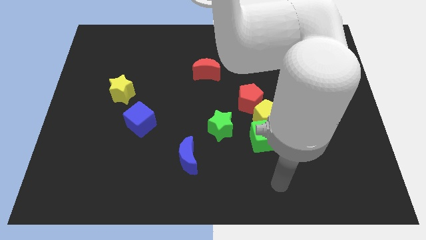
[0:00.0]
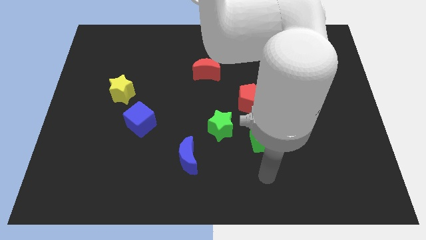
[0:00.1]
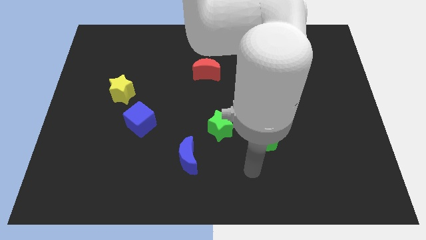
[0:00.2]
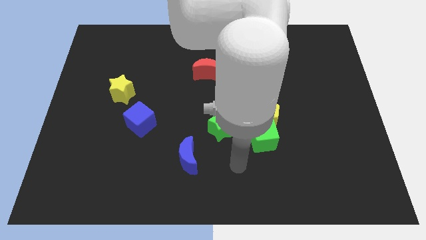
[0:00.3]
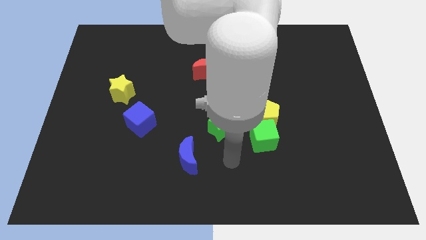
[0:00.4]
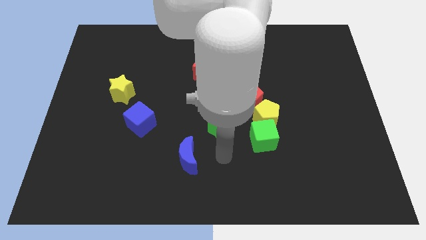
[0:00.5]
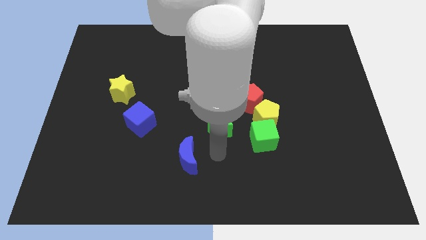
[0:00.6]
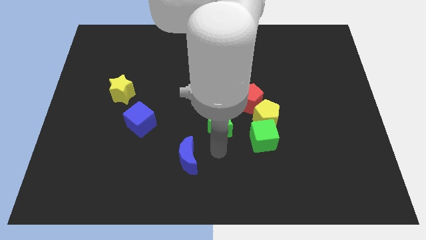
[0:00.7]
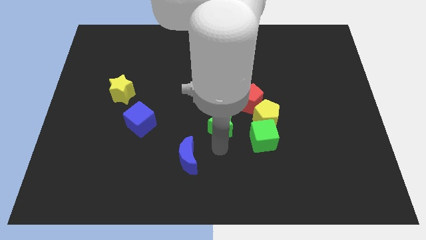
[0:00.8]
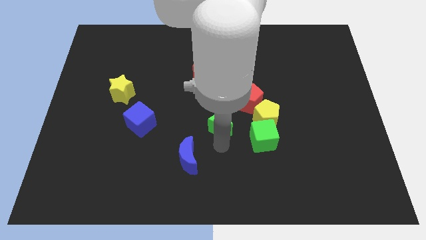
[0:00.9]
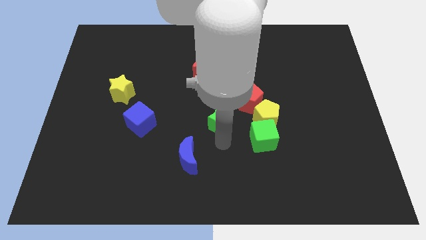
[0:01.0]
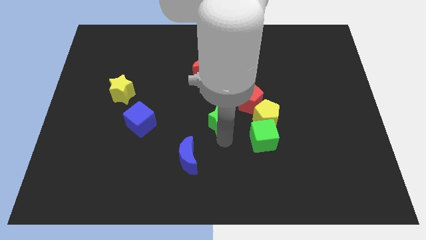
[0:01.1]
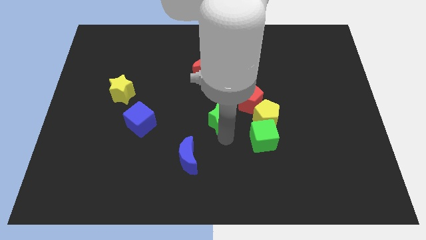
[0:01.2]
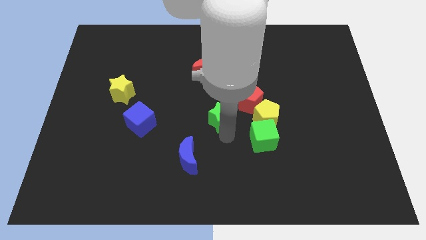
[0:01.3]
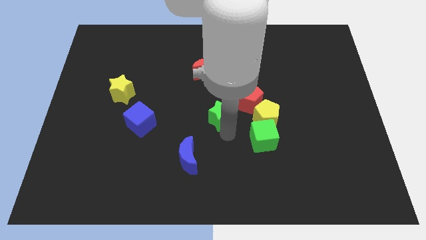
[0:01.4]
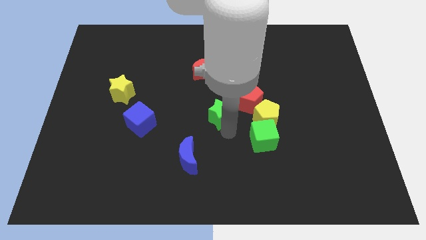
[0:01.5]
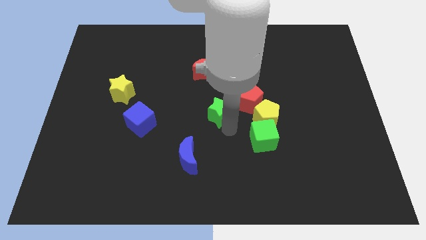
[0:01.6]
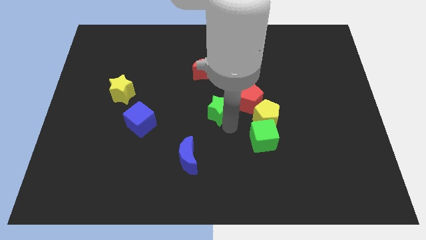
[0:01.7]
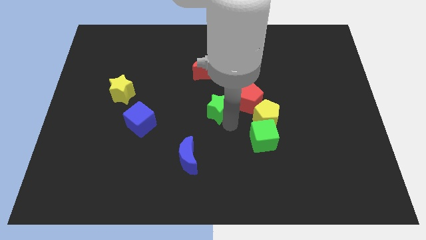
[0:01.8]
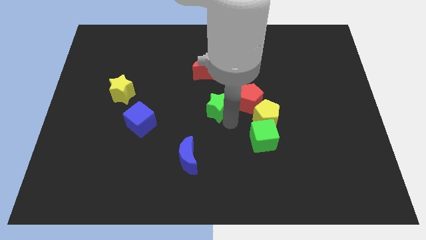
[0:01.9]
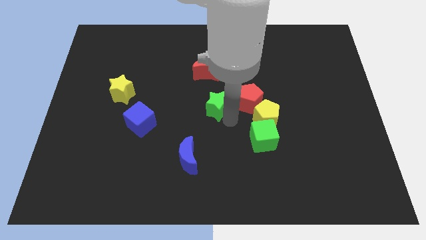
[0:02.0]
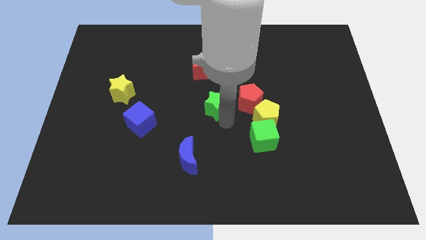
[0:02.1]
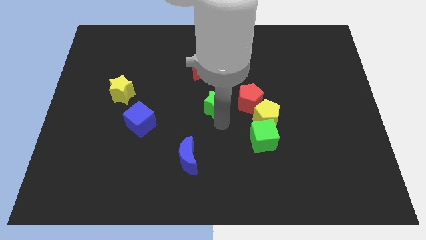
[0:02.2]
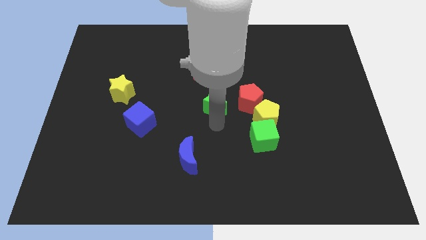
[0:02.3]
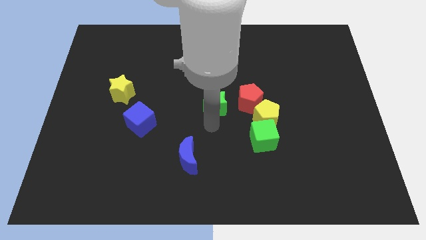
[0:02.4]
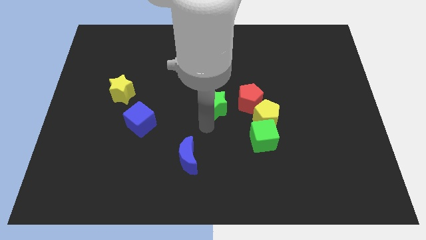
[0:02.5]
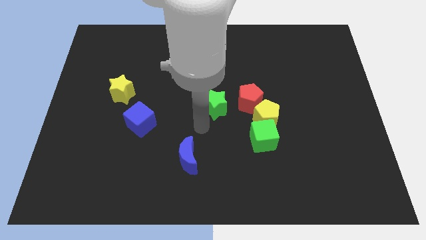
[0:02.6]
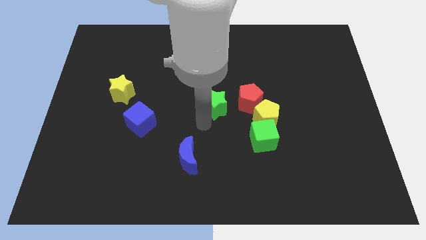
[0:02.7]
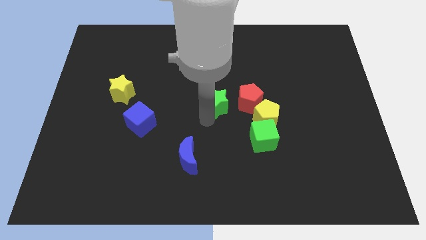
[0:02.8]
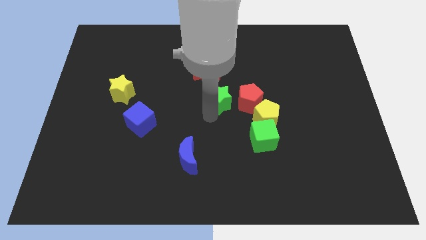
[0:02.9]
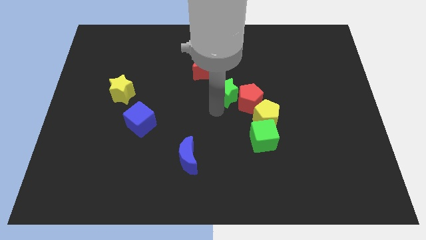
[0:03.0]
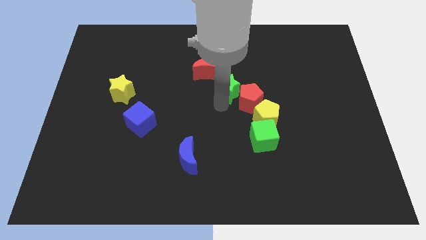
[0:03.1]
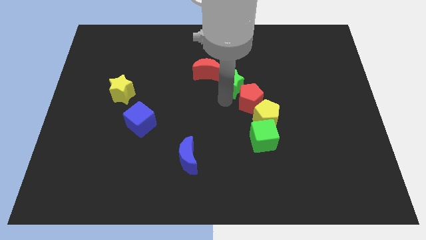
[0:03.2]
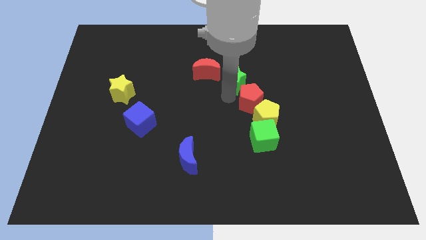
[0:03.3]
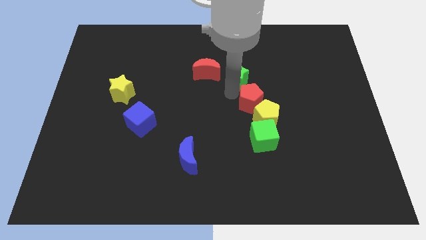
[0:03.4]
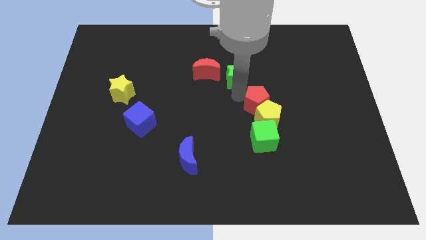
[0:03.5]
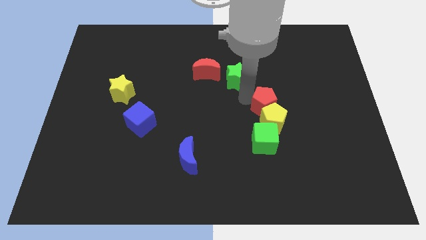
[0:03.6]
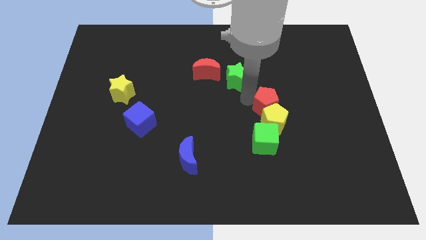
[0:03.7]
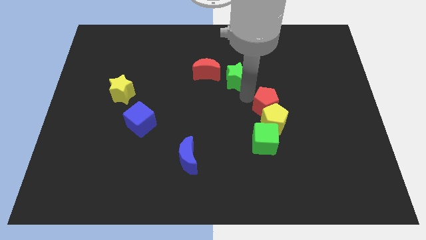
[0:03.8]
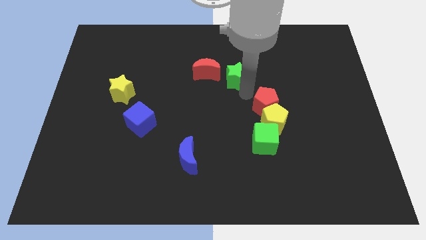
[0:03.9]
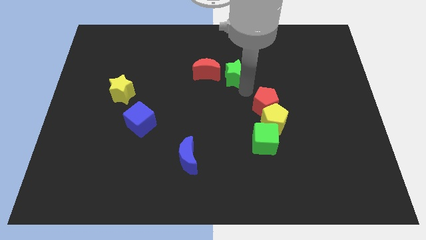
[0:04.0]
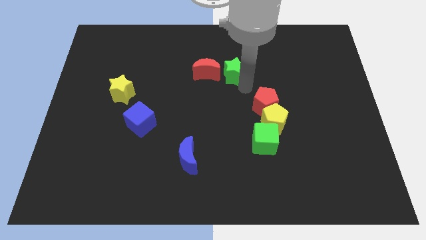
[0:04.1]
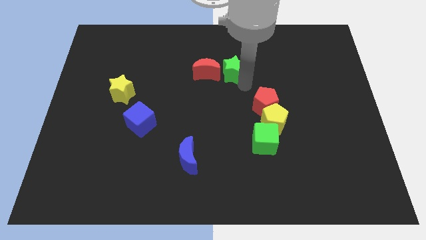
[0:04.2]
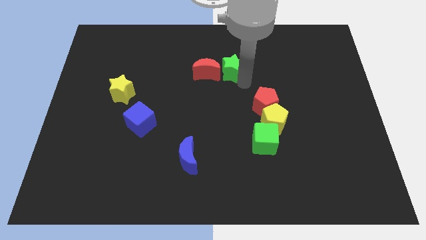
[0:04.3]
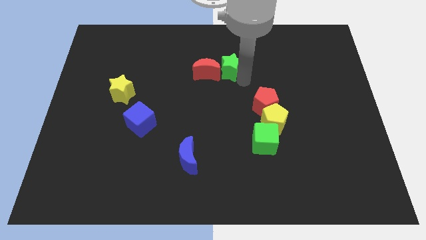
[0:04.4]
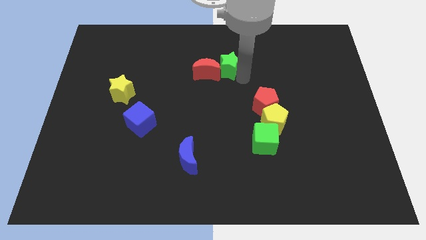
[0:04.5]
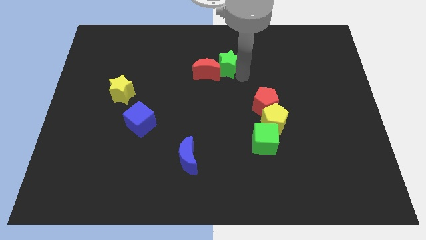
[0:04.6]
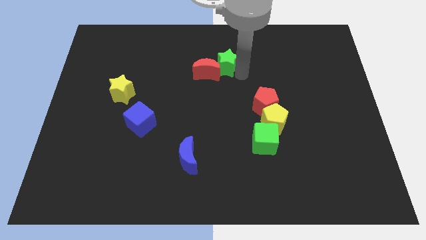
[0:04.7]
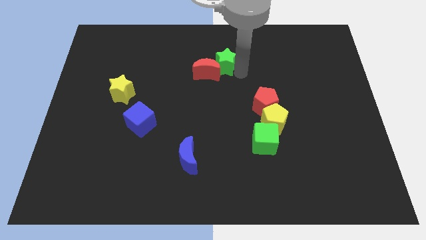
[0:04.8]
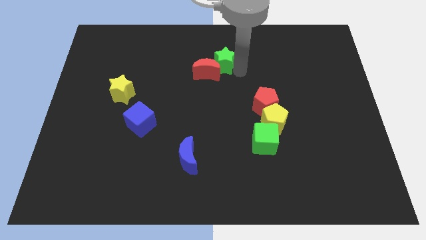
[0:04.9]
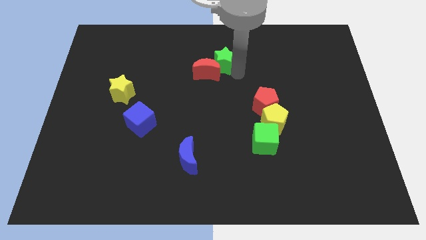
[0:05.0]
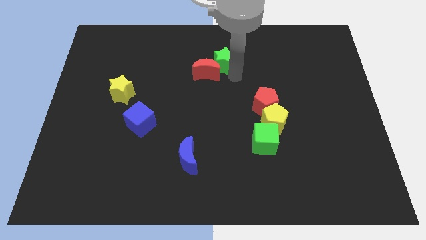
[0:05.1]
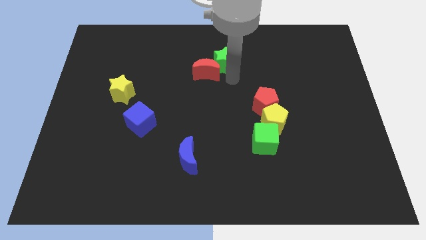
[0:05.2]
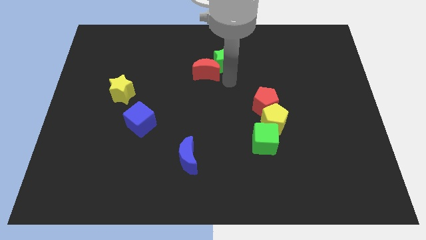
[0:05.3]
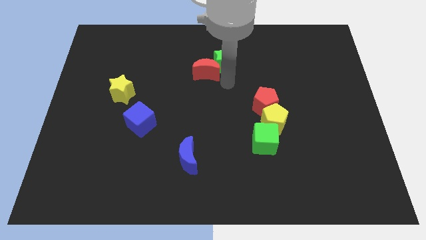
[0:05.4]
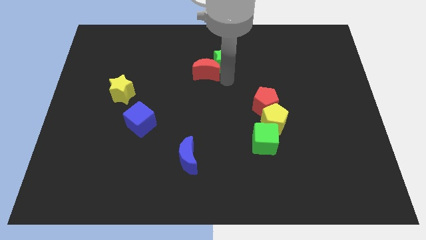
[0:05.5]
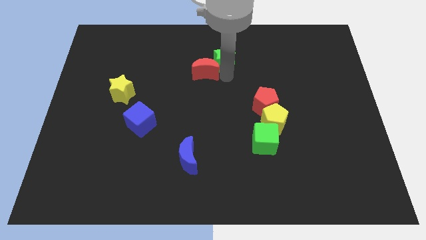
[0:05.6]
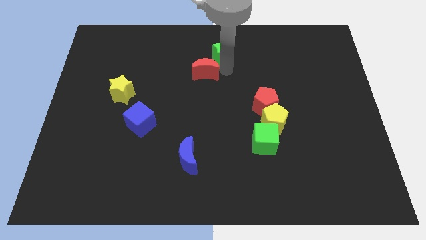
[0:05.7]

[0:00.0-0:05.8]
slide the green star to the top
